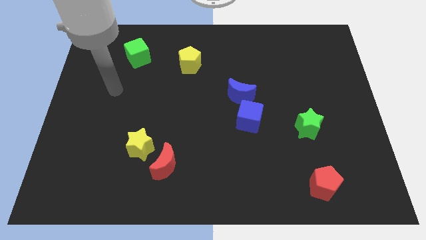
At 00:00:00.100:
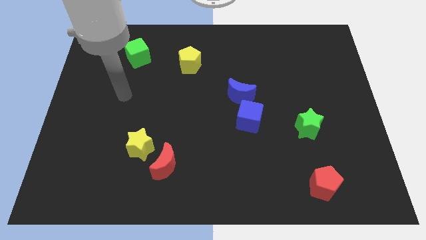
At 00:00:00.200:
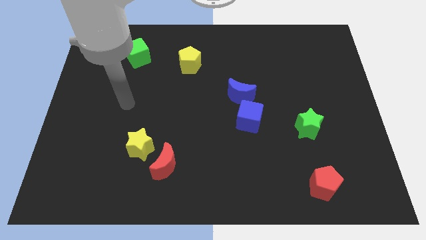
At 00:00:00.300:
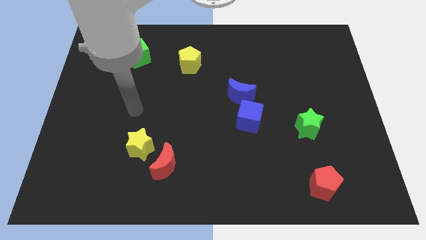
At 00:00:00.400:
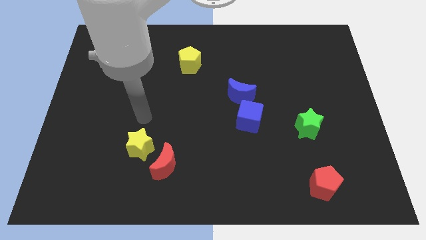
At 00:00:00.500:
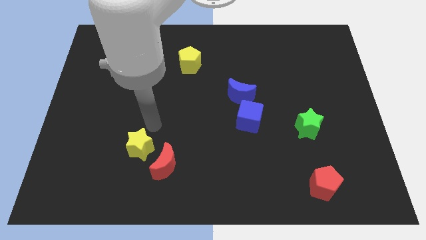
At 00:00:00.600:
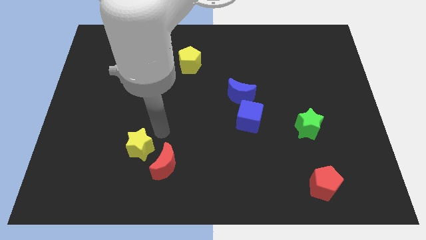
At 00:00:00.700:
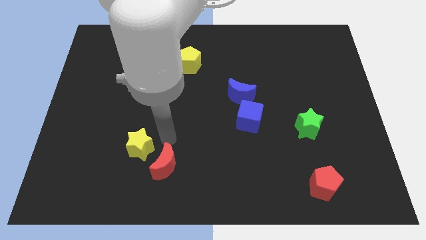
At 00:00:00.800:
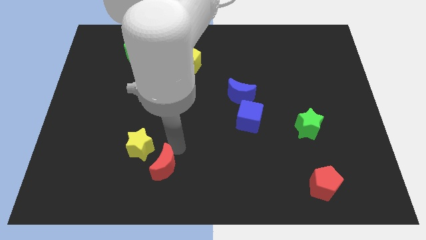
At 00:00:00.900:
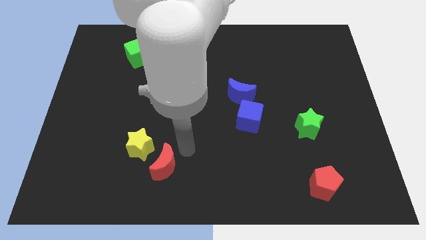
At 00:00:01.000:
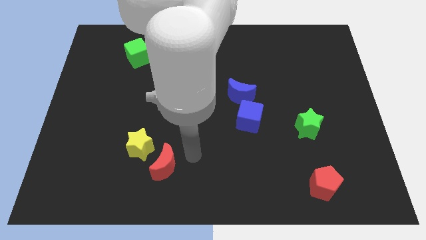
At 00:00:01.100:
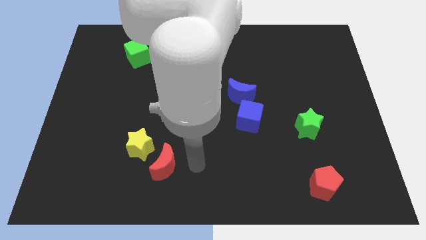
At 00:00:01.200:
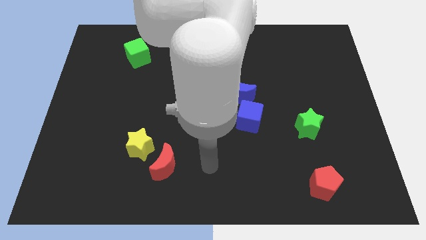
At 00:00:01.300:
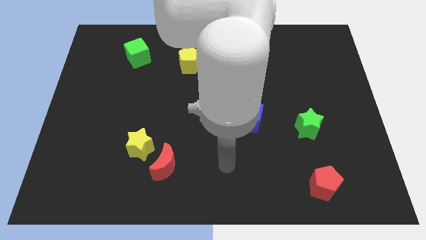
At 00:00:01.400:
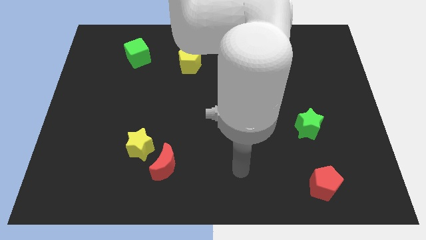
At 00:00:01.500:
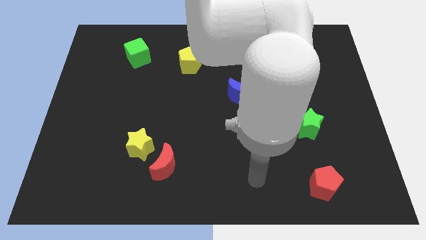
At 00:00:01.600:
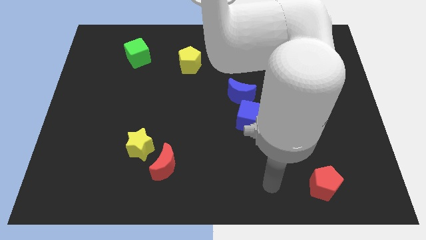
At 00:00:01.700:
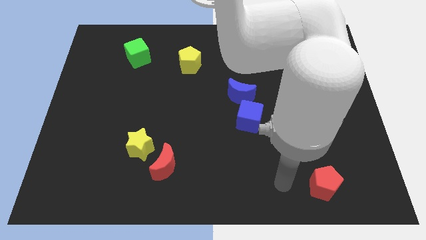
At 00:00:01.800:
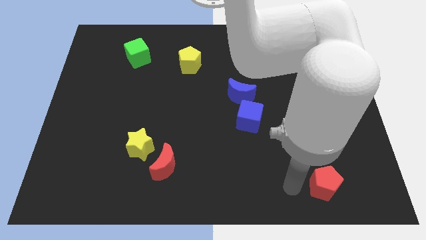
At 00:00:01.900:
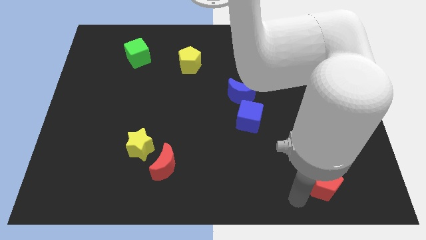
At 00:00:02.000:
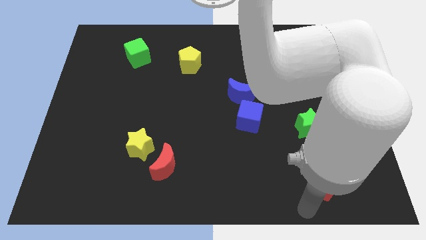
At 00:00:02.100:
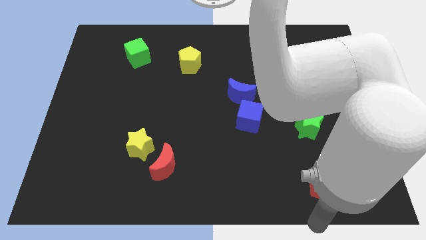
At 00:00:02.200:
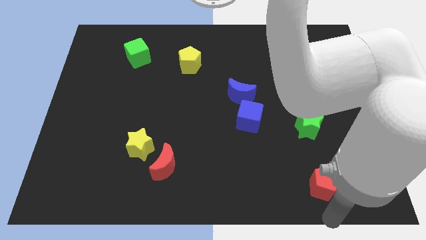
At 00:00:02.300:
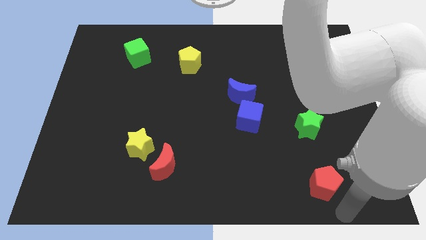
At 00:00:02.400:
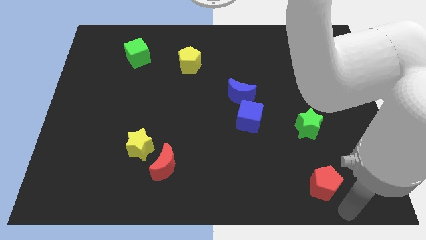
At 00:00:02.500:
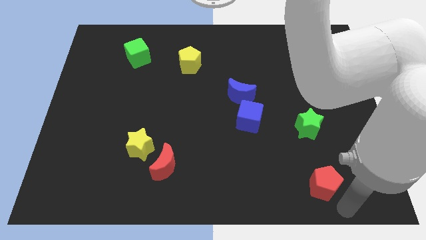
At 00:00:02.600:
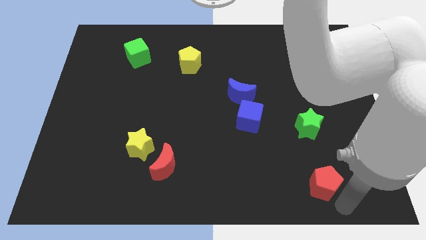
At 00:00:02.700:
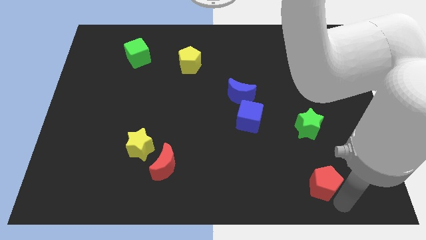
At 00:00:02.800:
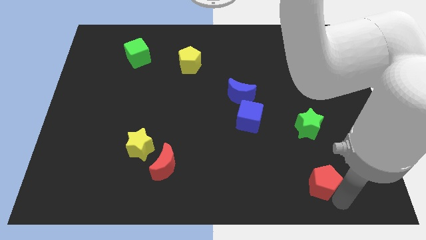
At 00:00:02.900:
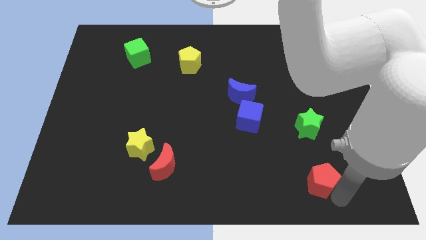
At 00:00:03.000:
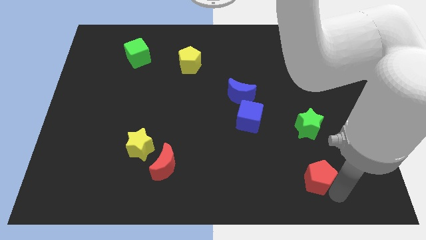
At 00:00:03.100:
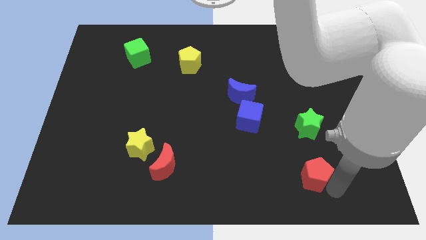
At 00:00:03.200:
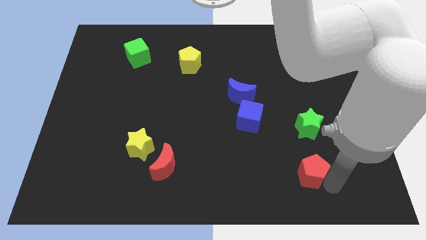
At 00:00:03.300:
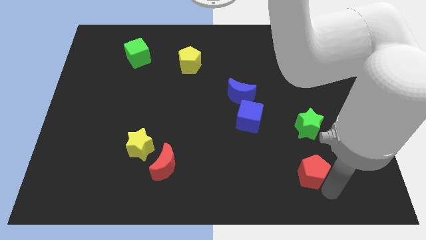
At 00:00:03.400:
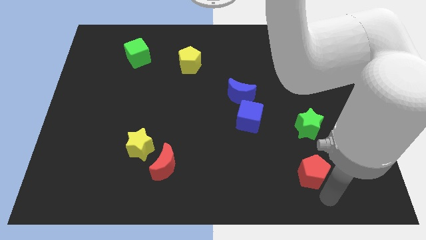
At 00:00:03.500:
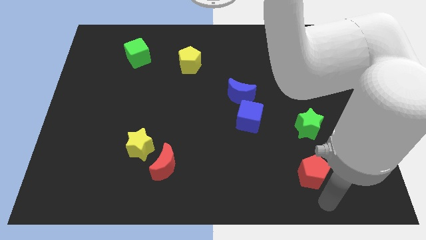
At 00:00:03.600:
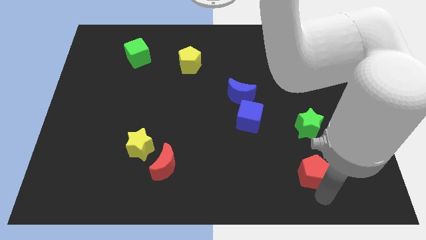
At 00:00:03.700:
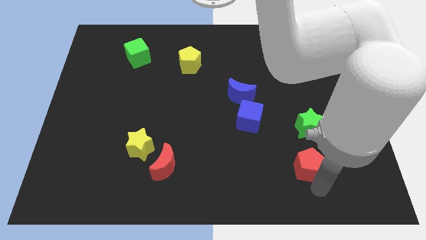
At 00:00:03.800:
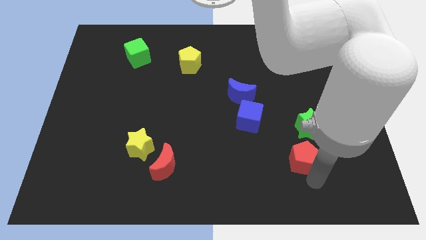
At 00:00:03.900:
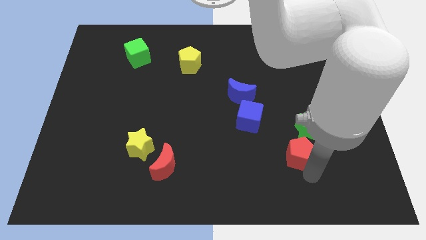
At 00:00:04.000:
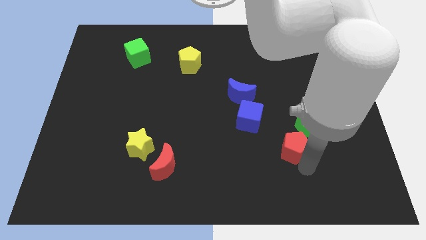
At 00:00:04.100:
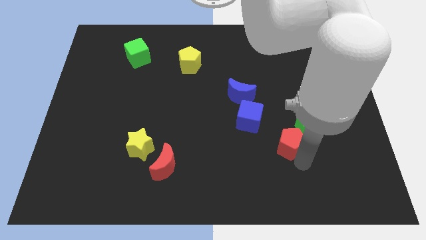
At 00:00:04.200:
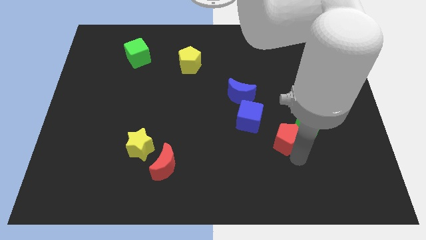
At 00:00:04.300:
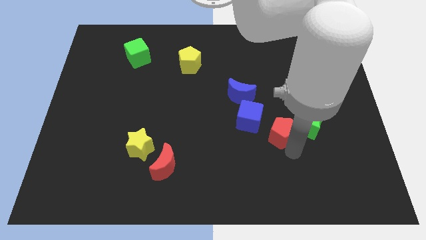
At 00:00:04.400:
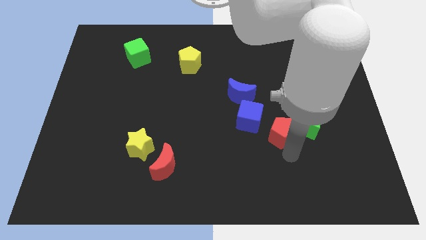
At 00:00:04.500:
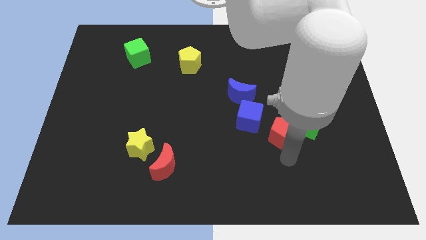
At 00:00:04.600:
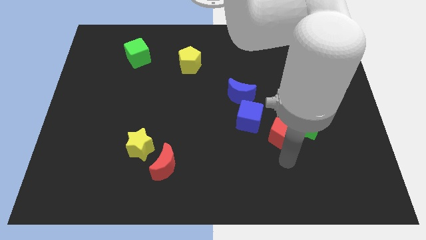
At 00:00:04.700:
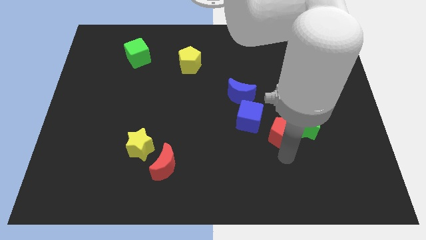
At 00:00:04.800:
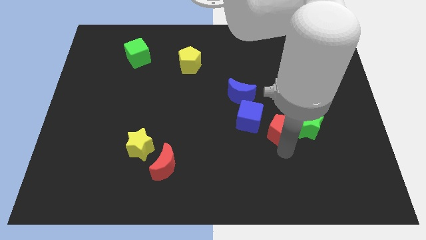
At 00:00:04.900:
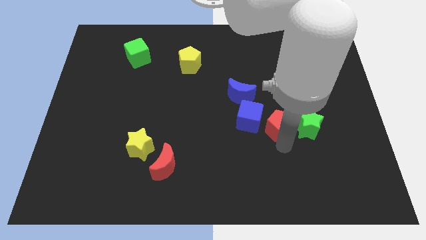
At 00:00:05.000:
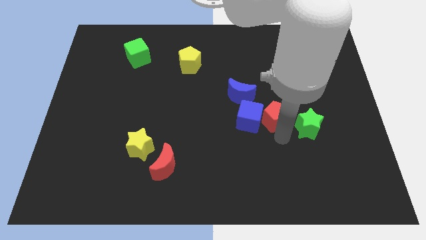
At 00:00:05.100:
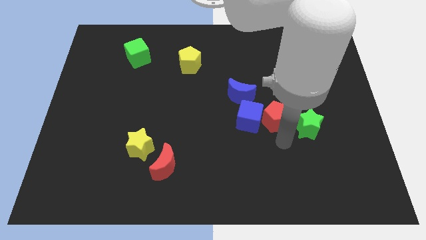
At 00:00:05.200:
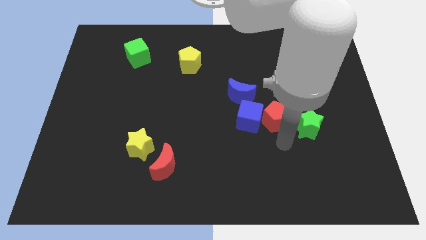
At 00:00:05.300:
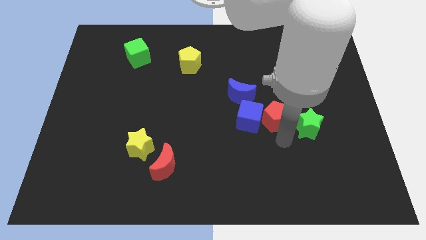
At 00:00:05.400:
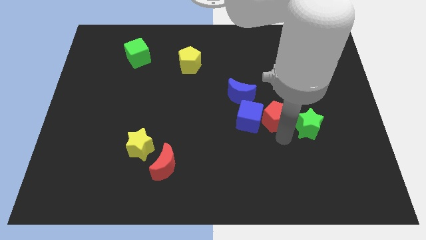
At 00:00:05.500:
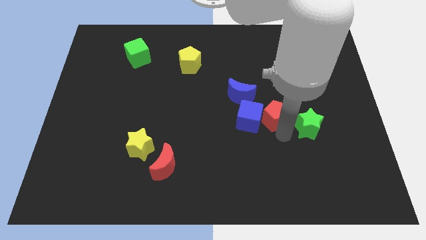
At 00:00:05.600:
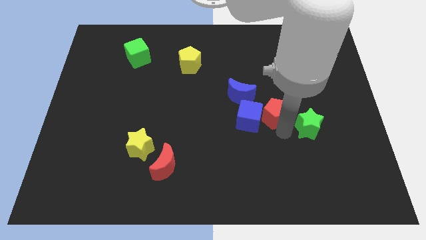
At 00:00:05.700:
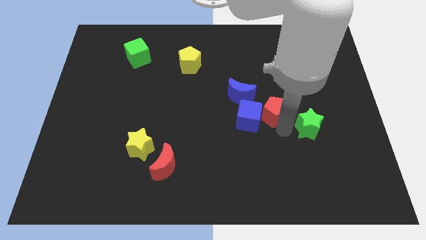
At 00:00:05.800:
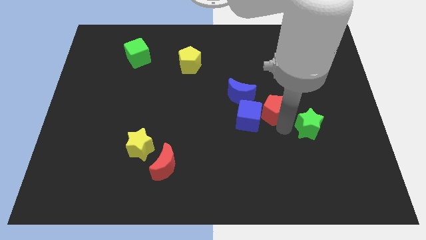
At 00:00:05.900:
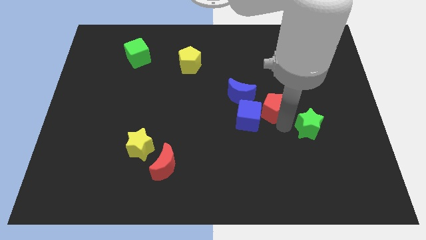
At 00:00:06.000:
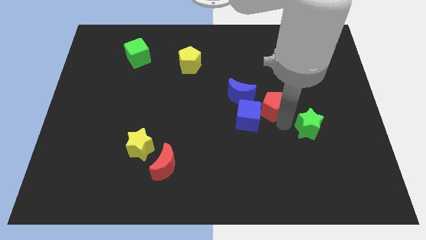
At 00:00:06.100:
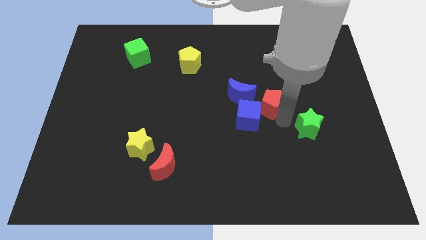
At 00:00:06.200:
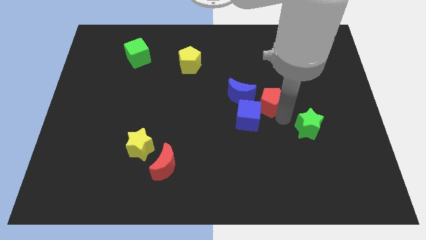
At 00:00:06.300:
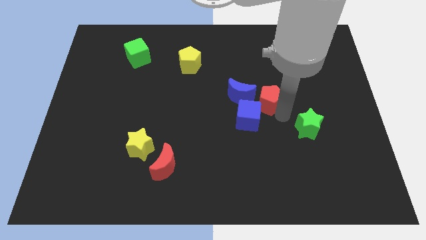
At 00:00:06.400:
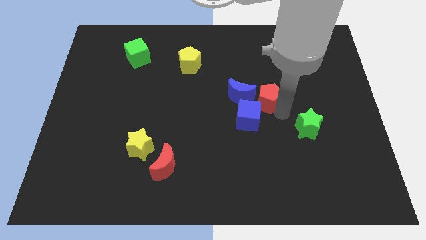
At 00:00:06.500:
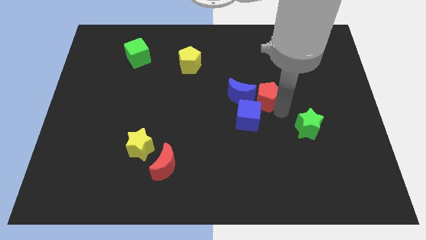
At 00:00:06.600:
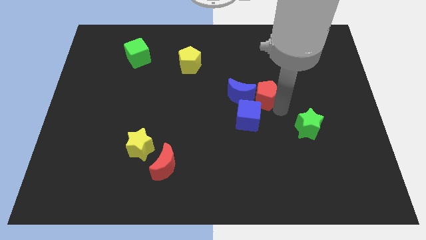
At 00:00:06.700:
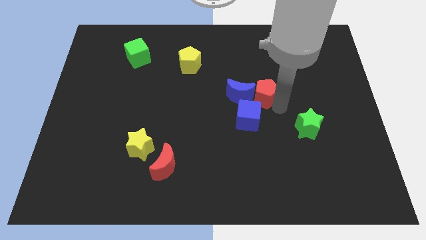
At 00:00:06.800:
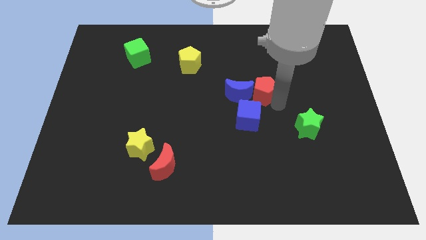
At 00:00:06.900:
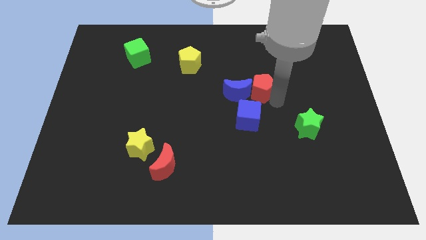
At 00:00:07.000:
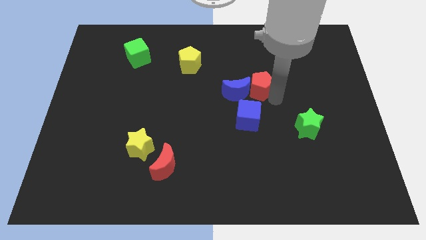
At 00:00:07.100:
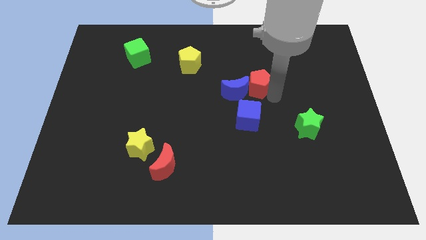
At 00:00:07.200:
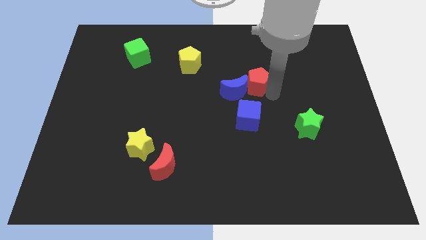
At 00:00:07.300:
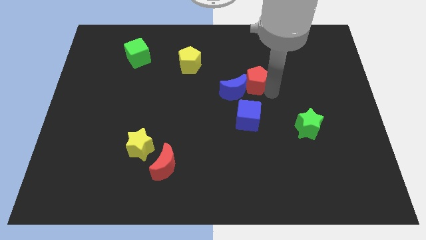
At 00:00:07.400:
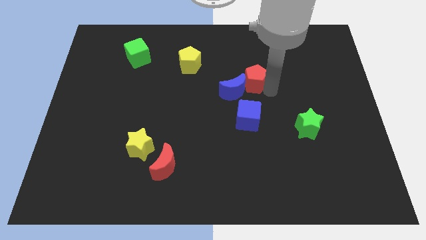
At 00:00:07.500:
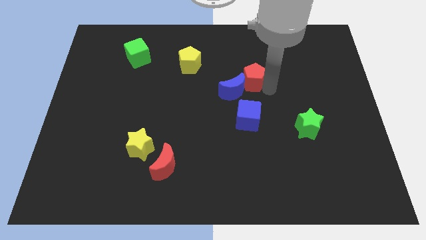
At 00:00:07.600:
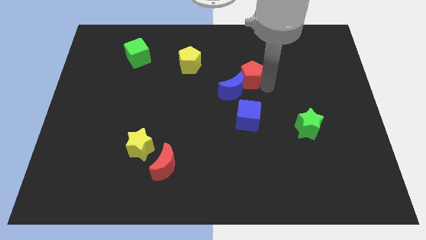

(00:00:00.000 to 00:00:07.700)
push the red pentagon to the top side of the blue moon

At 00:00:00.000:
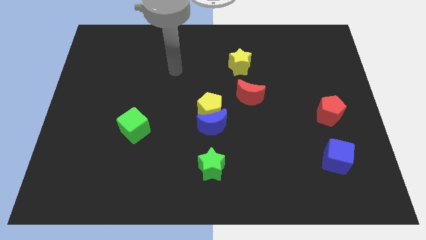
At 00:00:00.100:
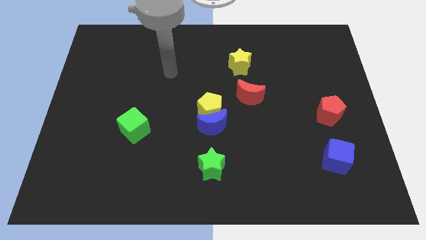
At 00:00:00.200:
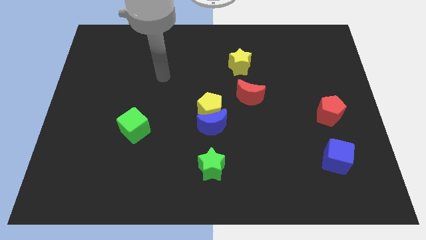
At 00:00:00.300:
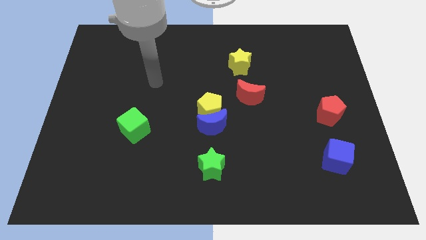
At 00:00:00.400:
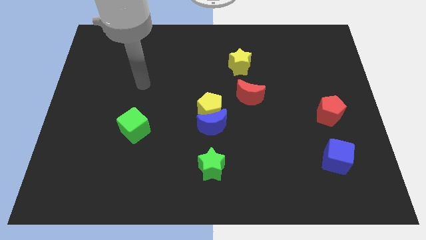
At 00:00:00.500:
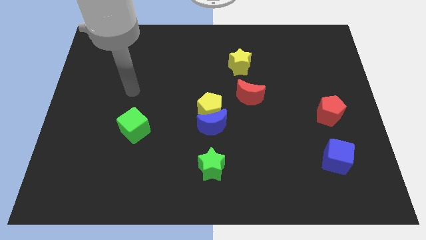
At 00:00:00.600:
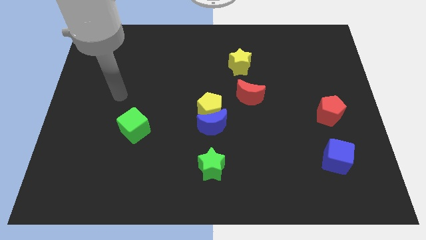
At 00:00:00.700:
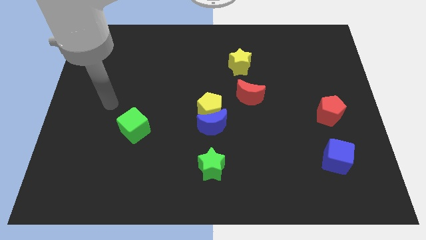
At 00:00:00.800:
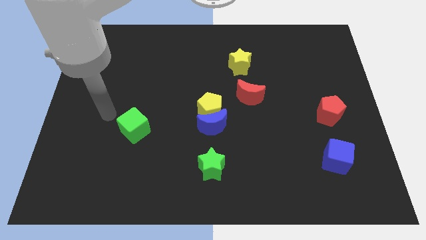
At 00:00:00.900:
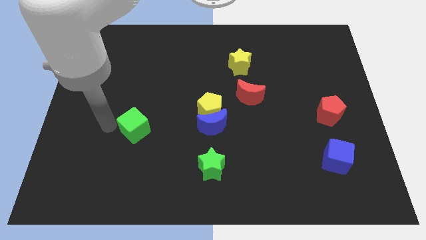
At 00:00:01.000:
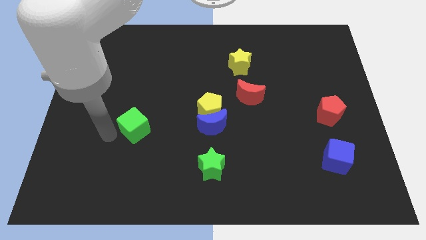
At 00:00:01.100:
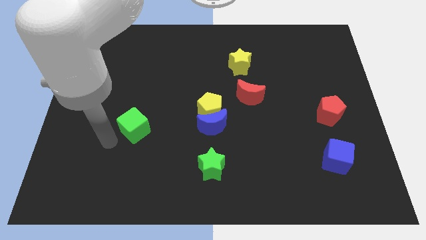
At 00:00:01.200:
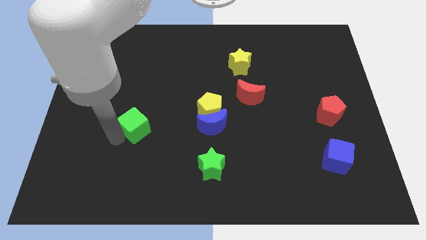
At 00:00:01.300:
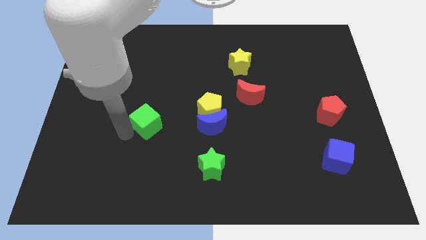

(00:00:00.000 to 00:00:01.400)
push the green cube to the left of the yellow pentagon
